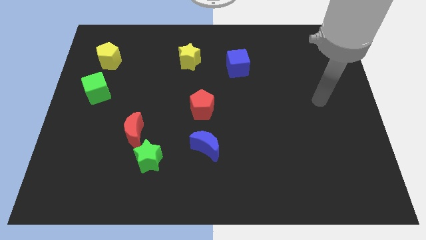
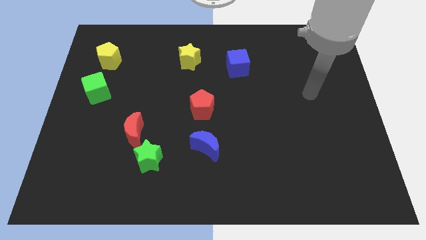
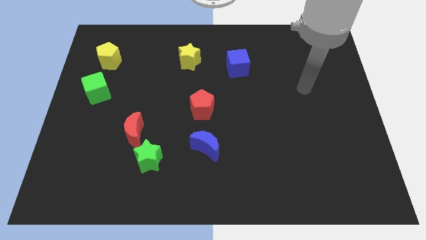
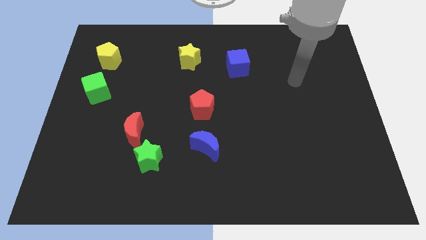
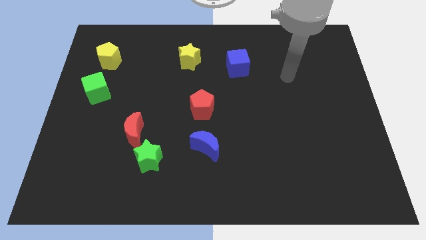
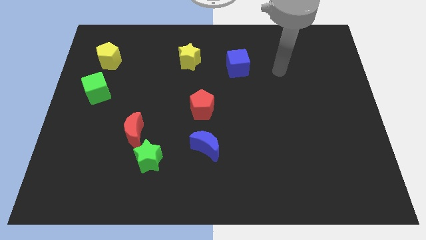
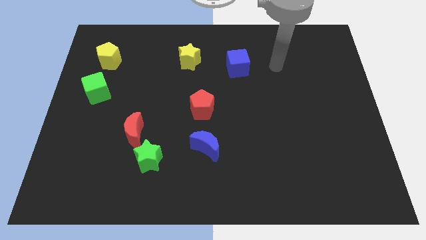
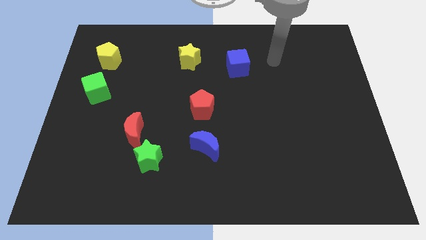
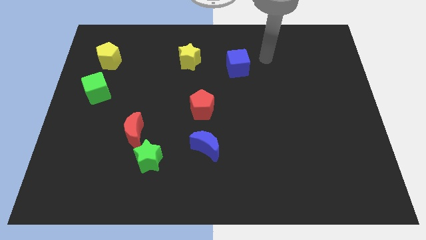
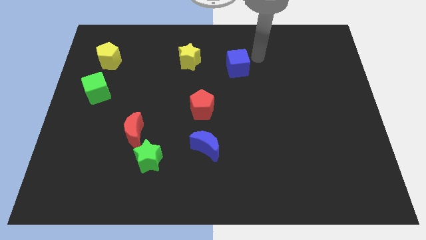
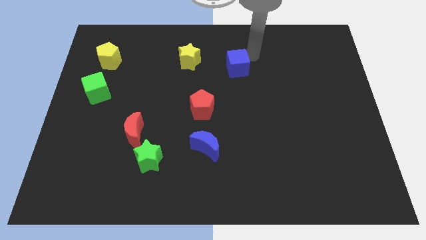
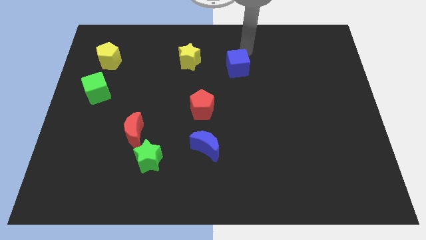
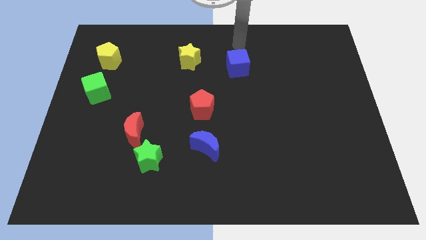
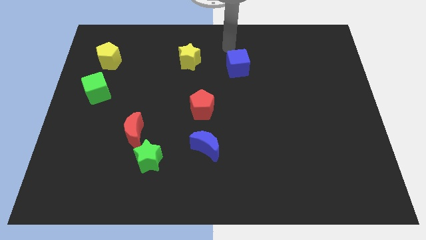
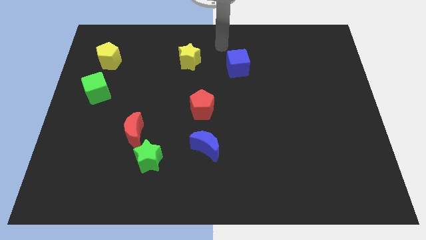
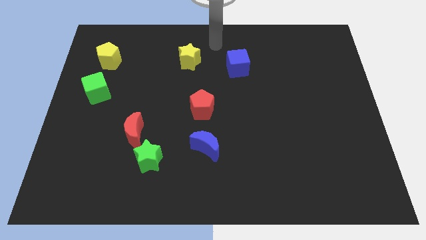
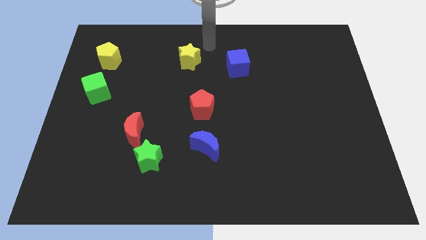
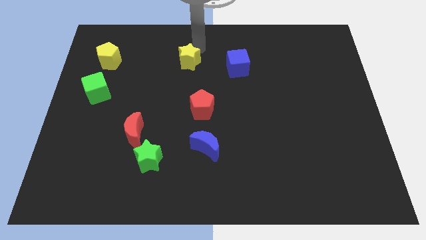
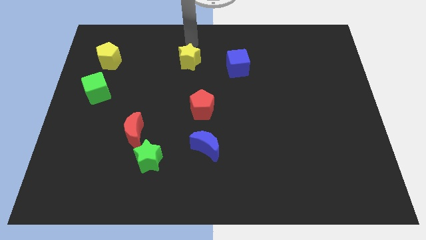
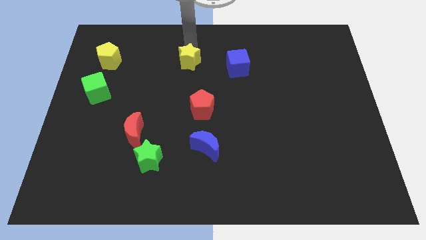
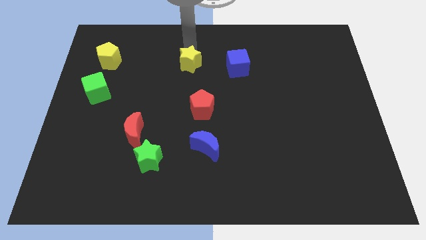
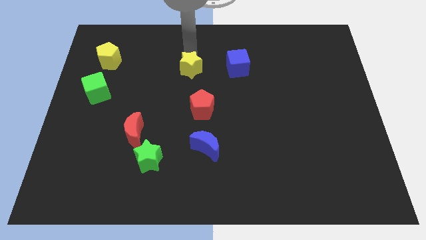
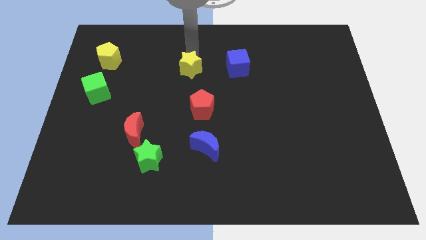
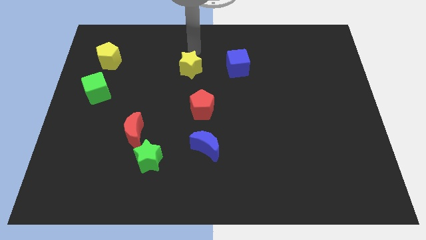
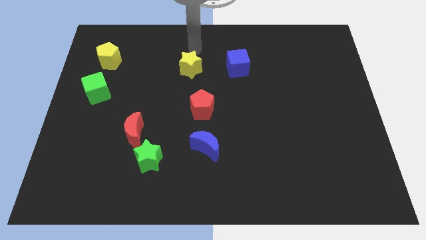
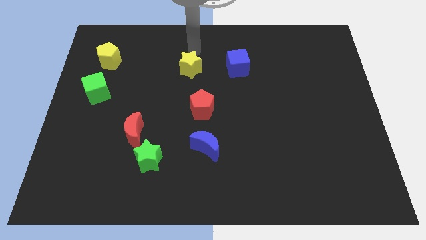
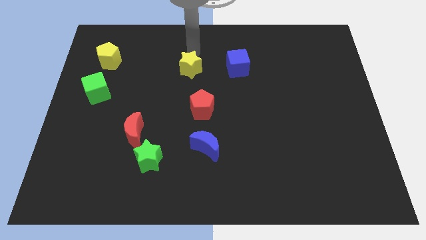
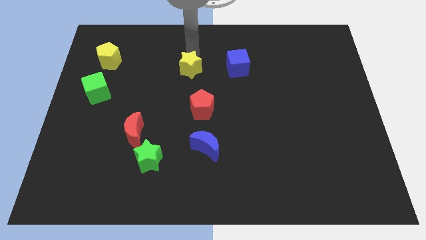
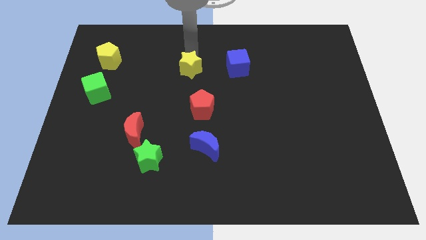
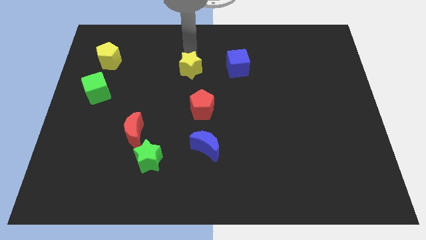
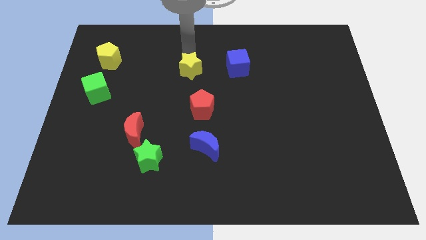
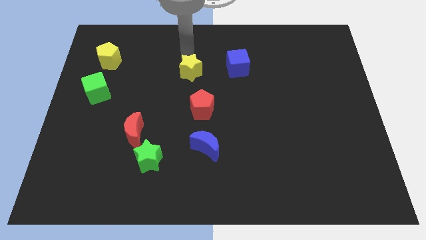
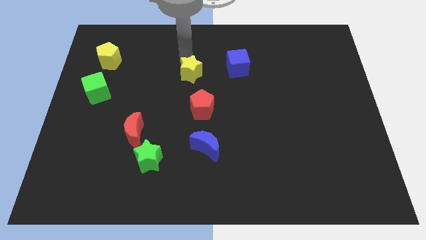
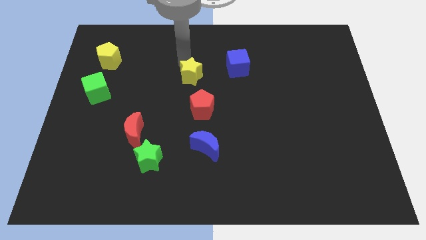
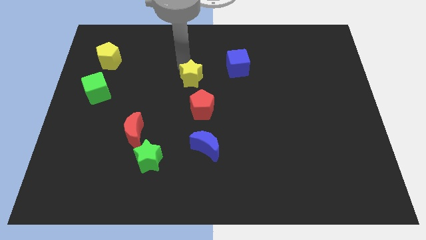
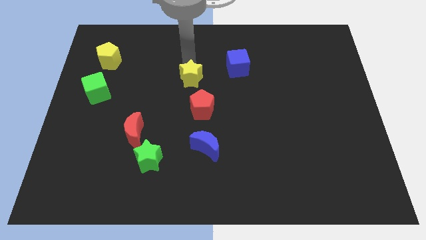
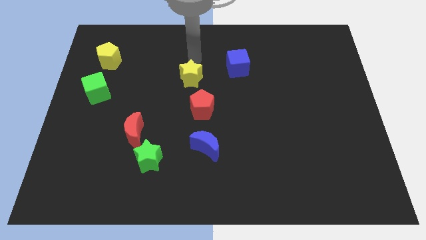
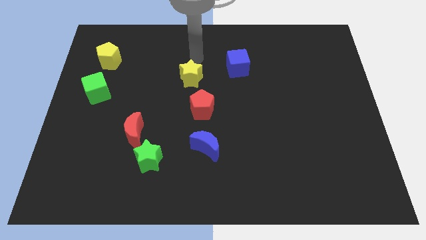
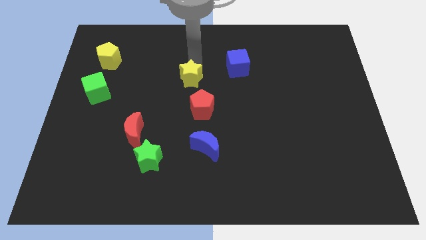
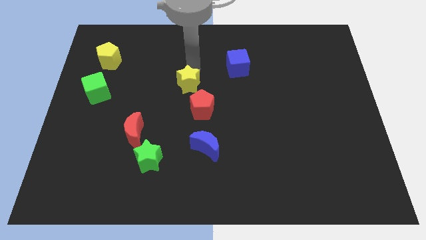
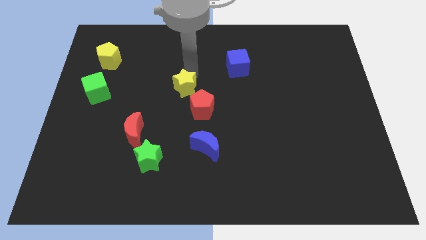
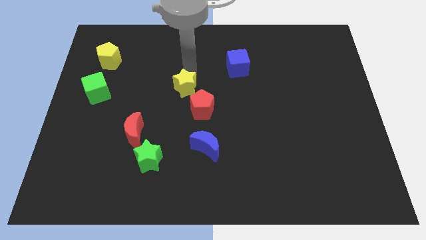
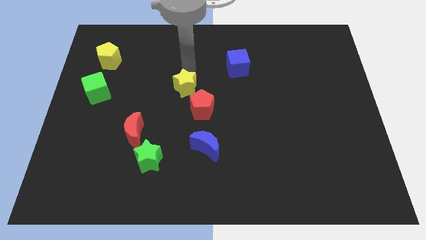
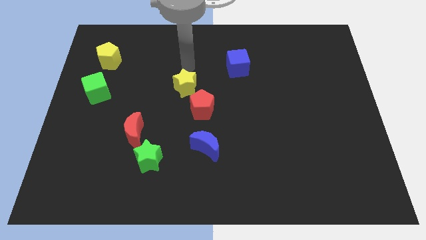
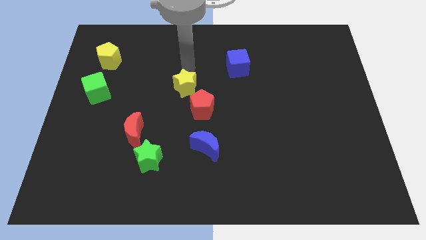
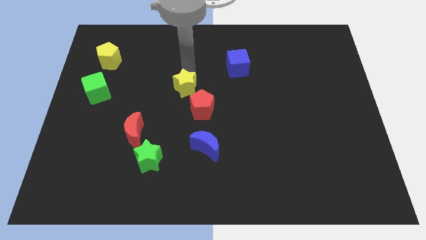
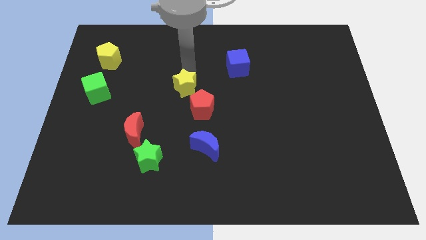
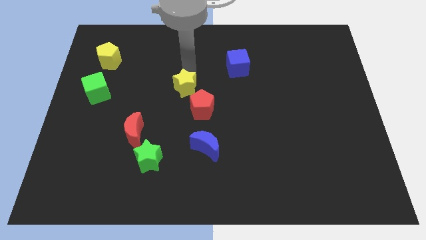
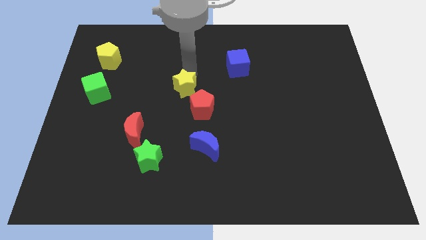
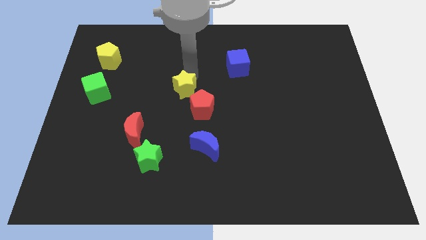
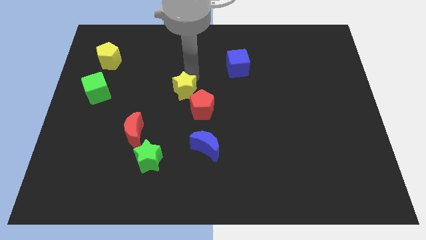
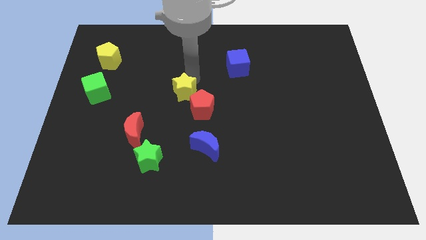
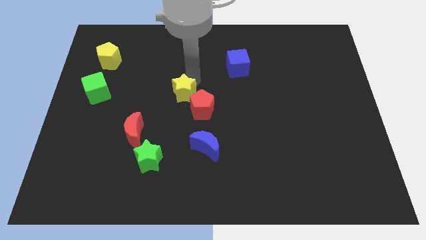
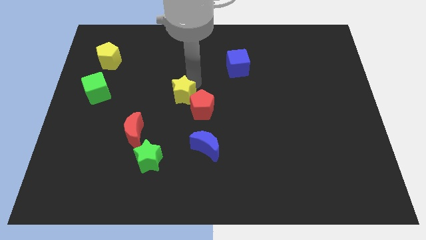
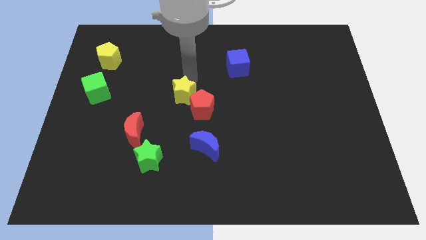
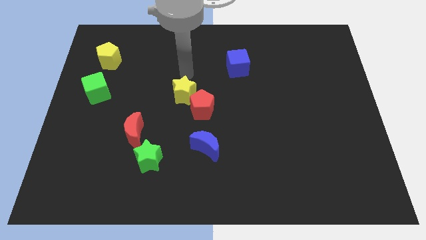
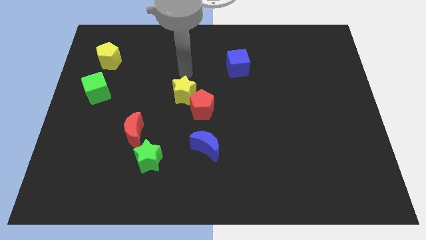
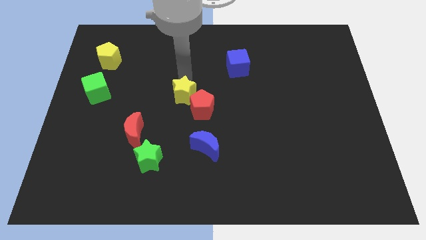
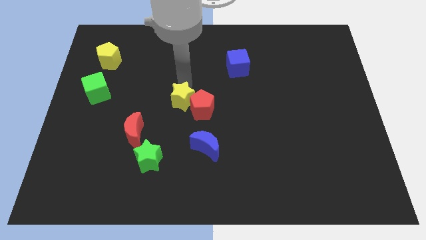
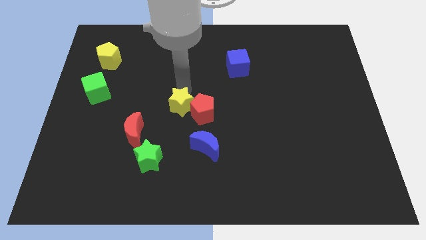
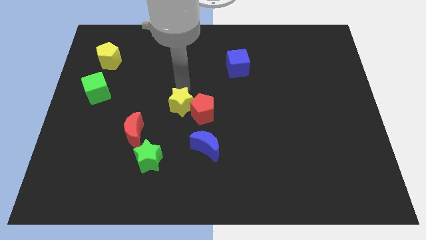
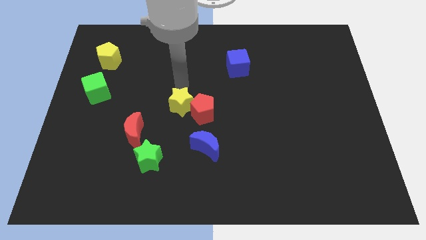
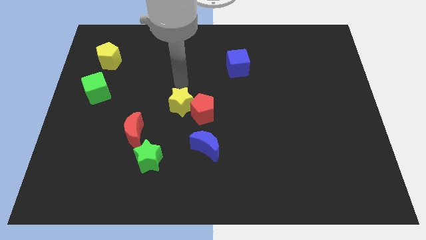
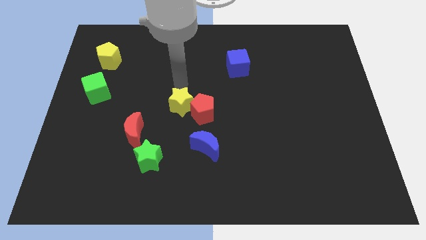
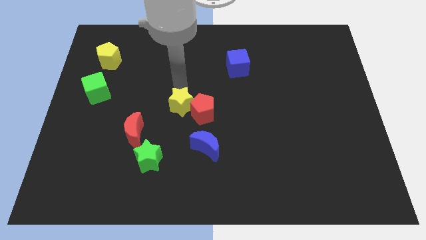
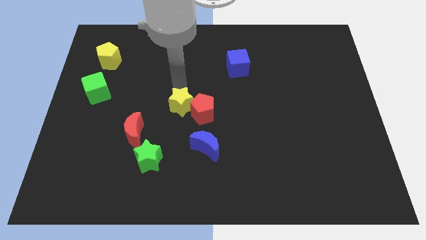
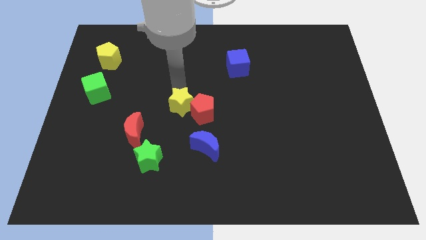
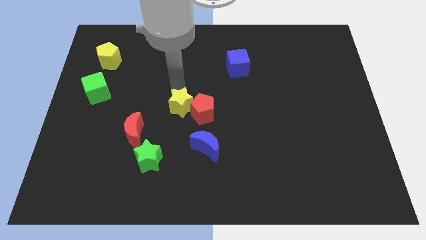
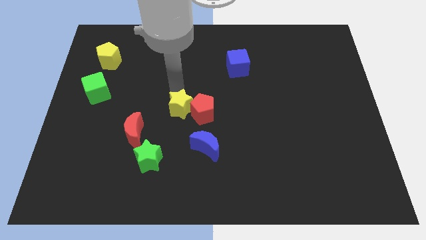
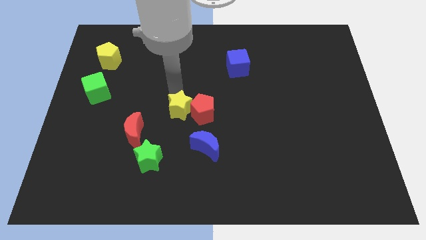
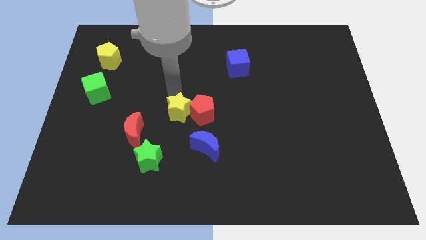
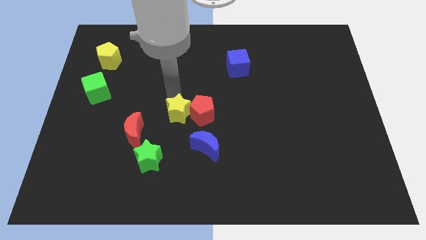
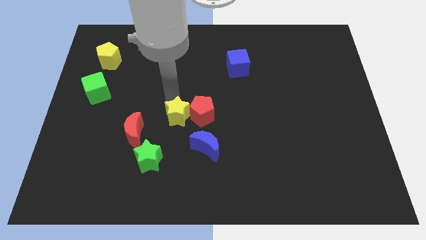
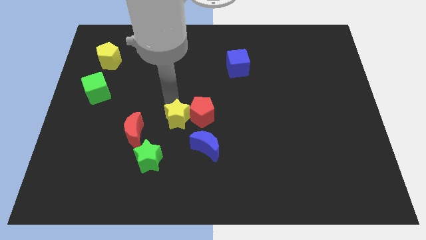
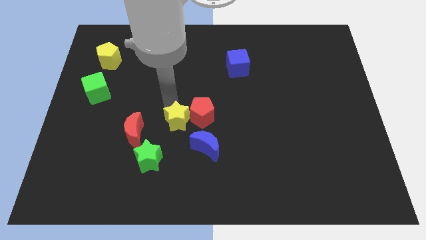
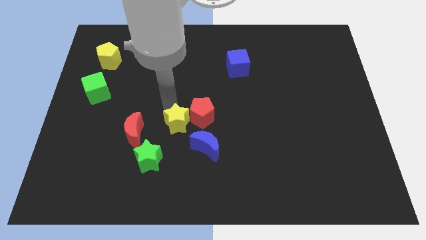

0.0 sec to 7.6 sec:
slide the yellow star downwards

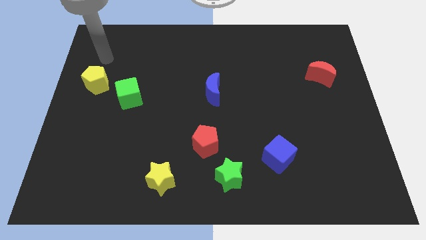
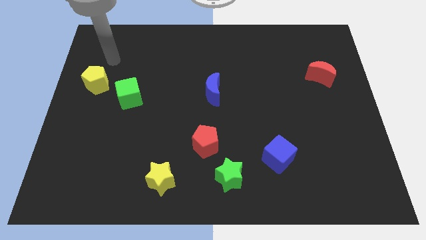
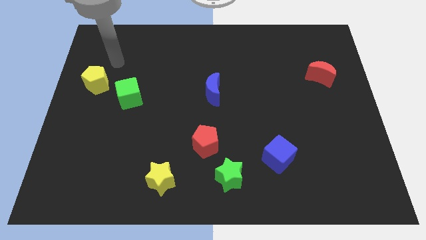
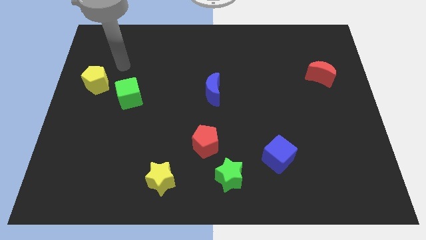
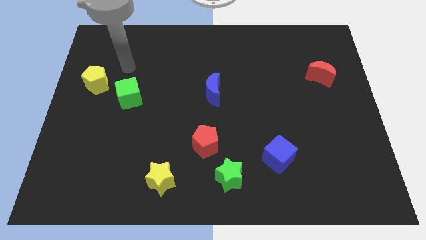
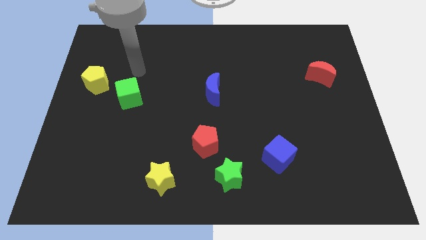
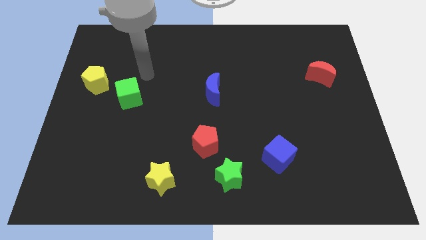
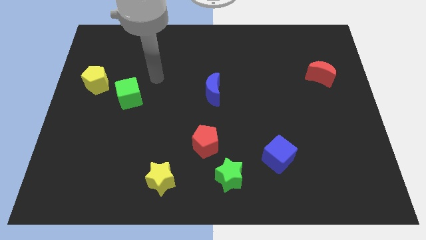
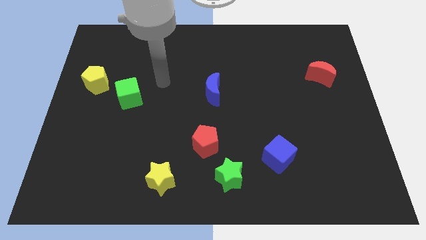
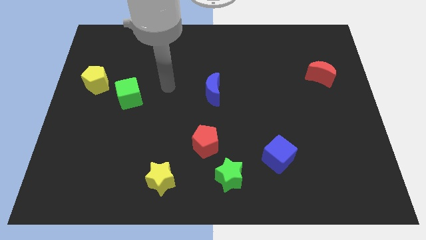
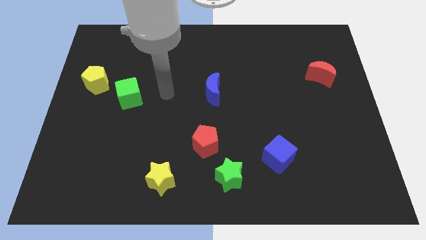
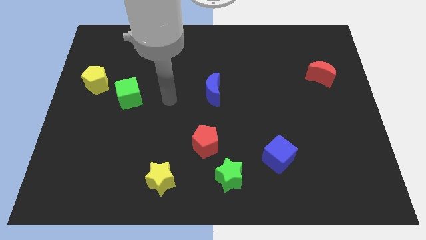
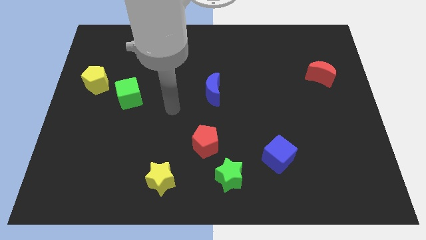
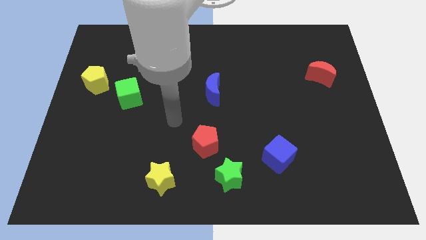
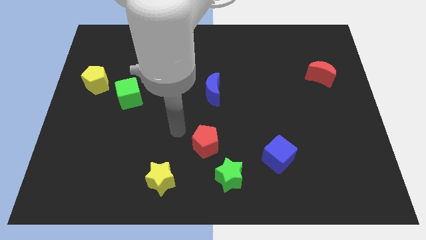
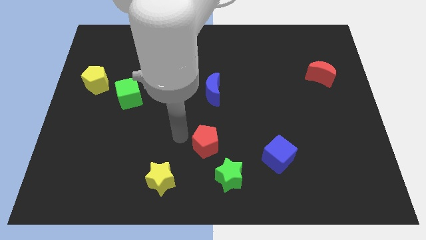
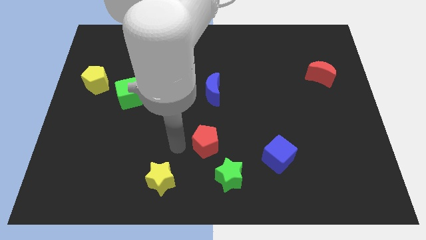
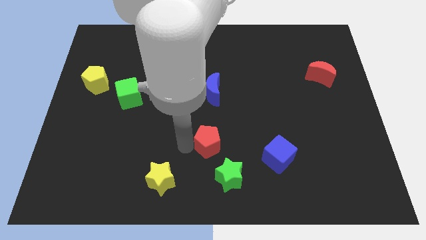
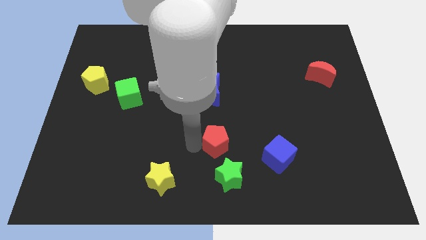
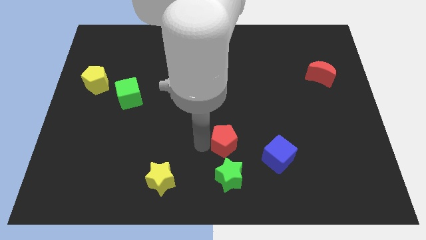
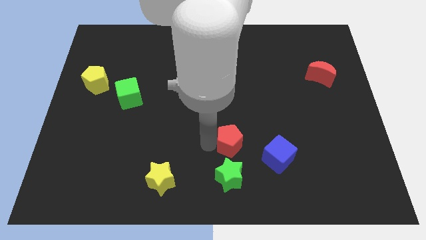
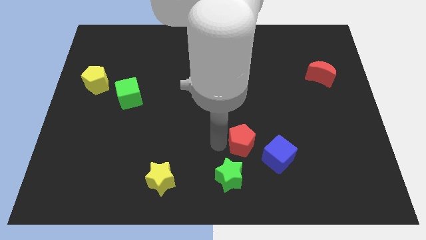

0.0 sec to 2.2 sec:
slightly move the red pentagon right
